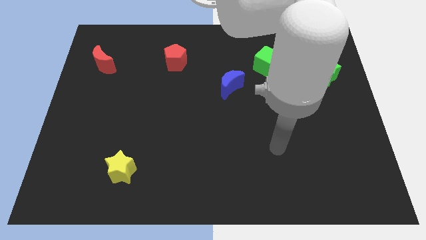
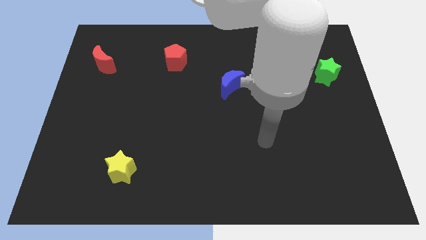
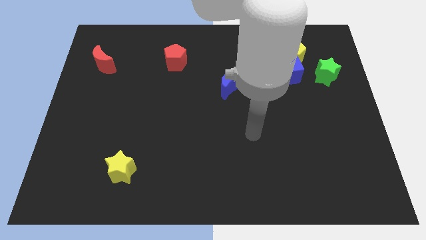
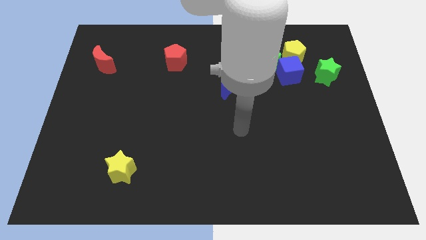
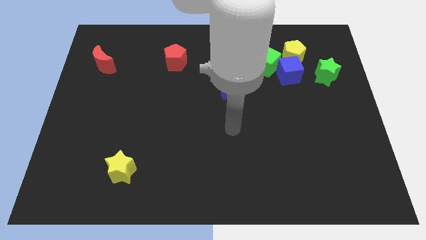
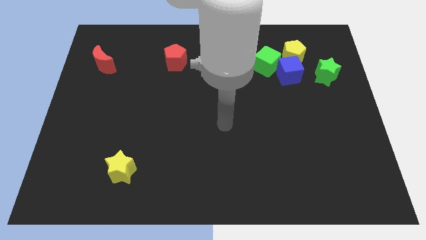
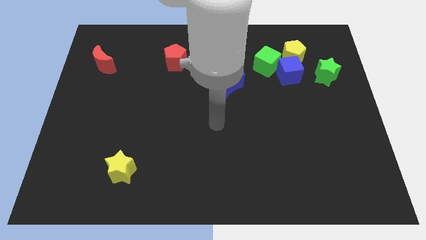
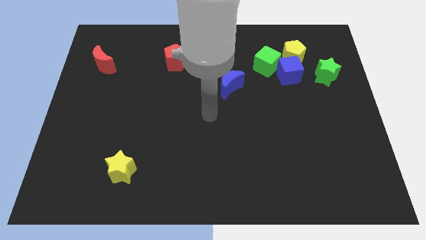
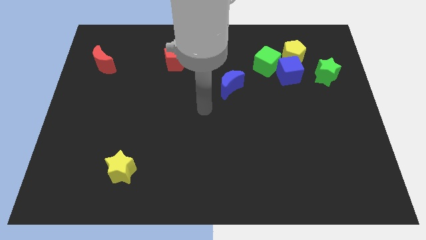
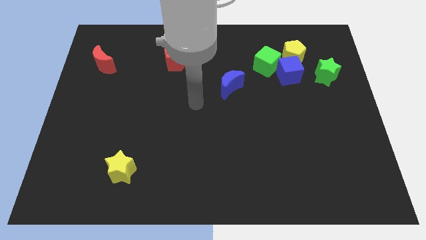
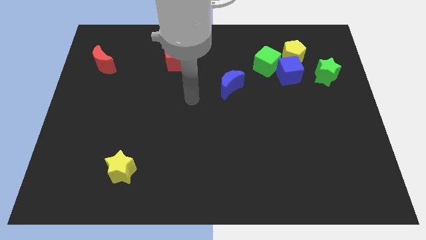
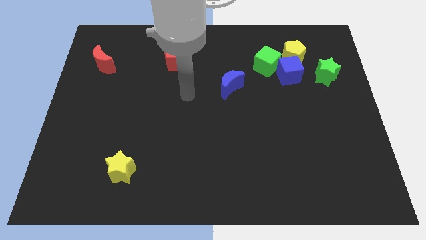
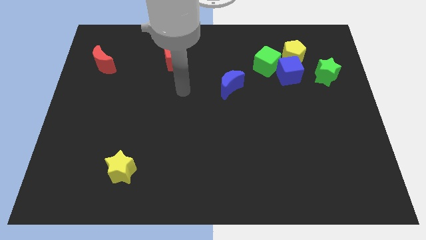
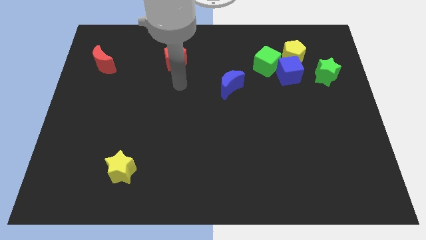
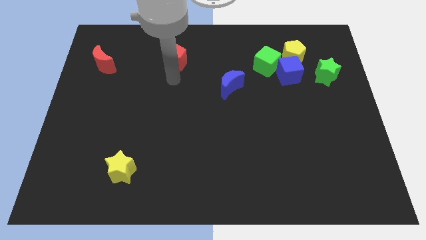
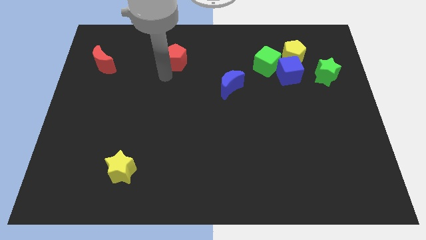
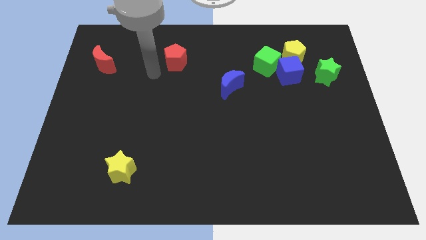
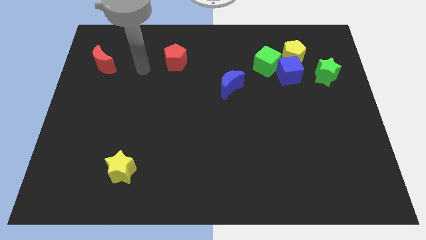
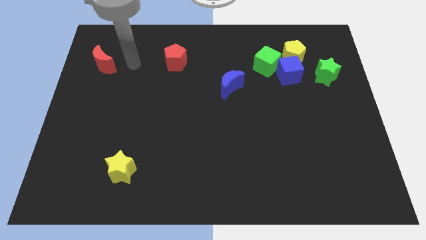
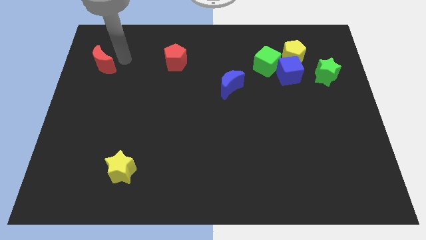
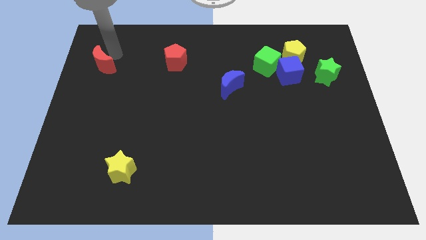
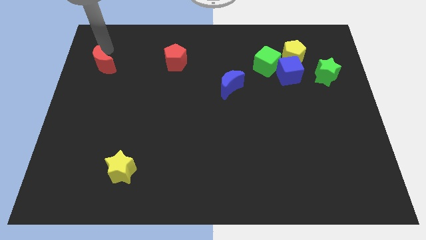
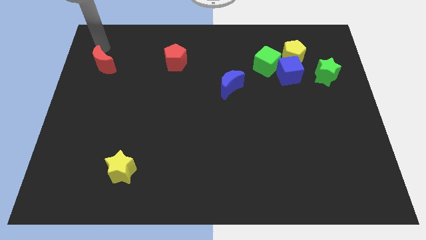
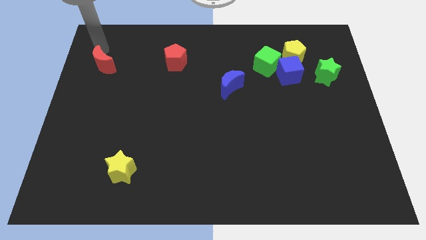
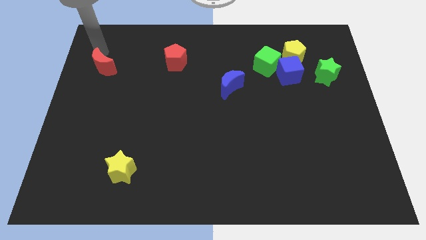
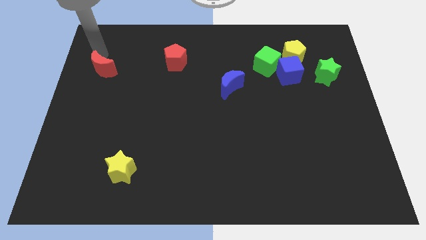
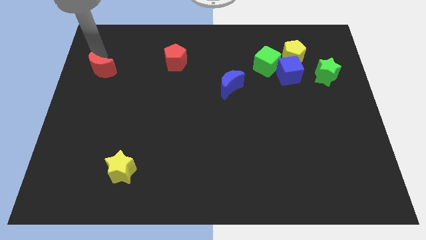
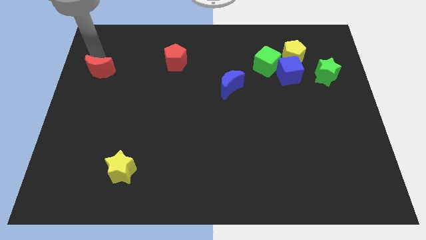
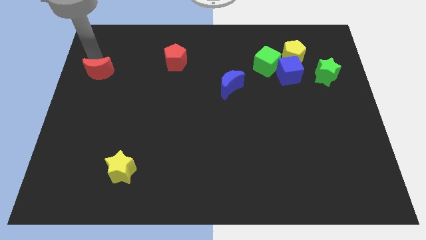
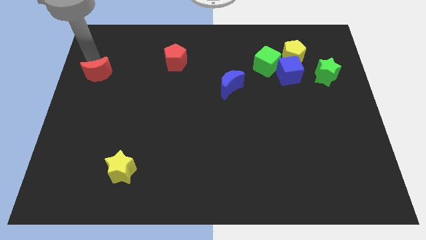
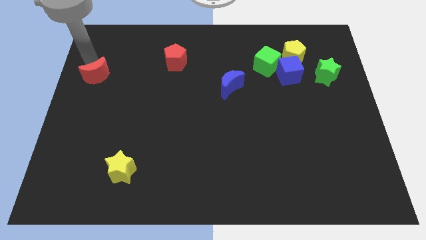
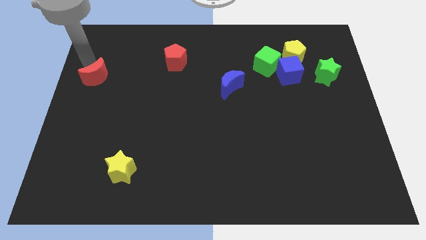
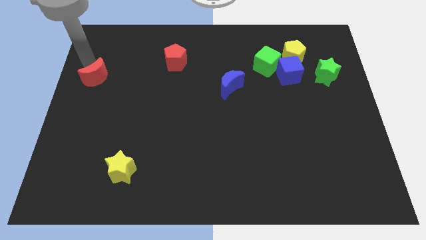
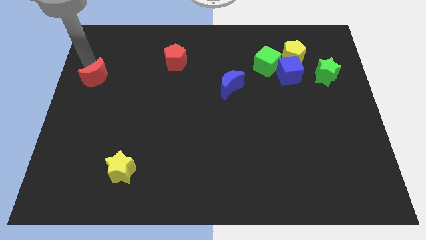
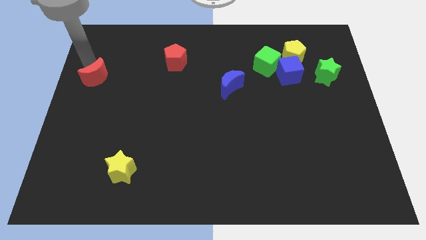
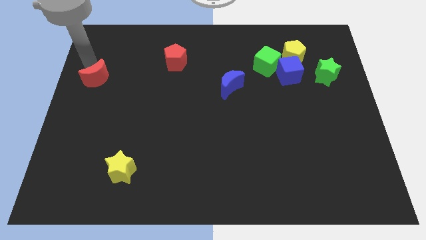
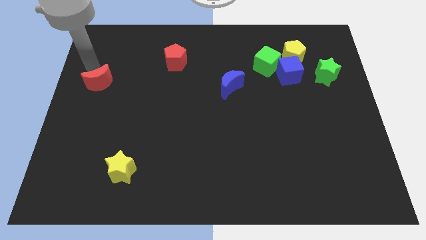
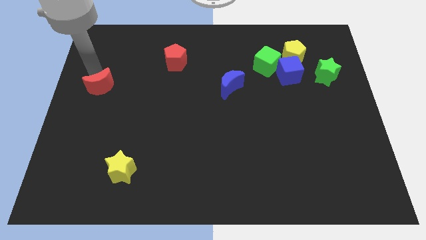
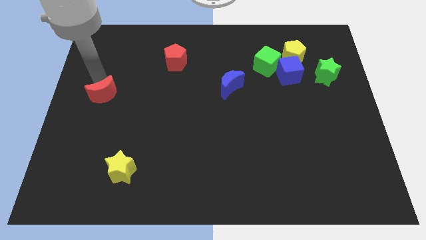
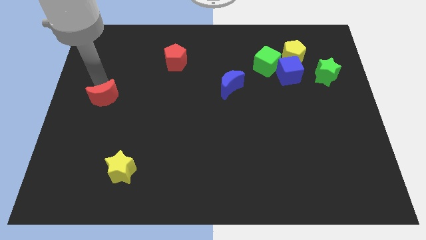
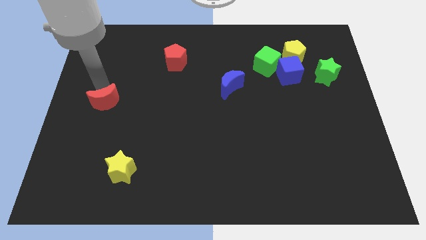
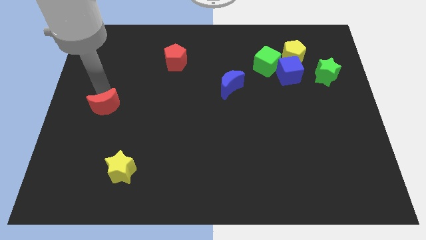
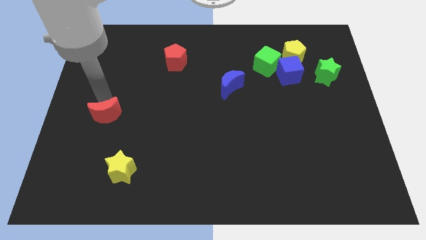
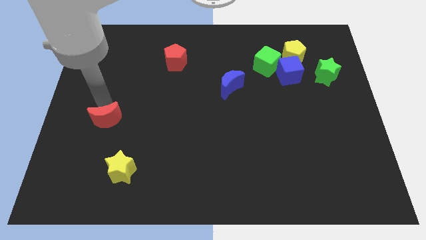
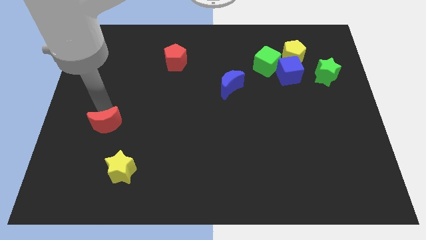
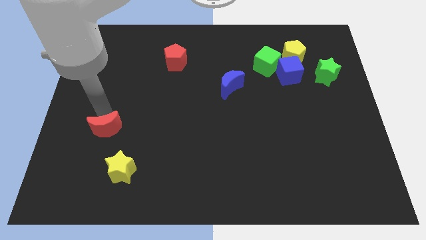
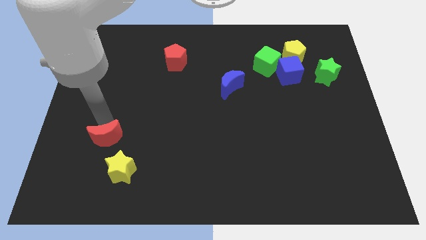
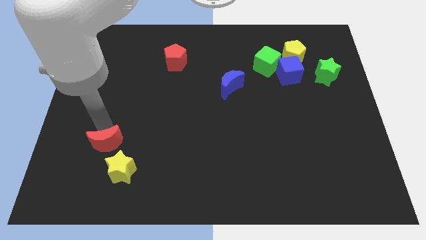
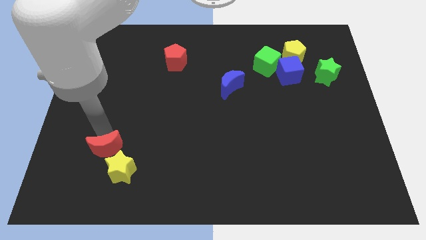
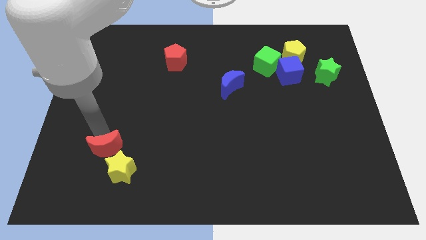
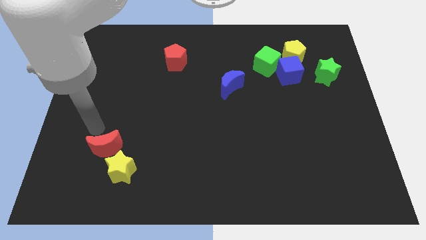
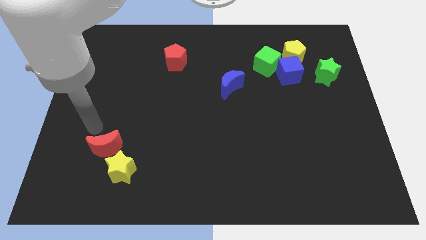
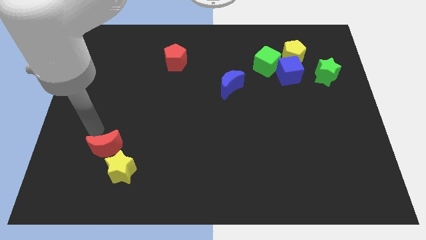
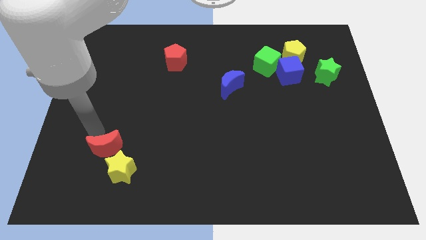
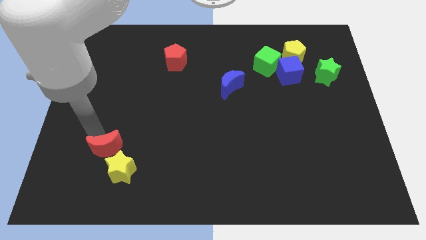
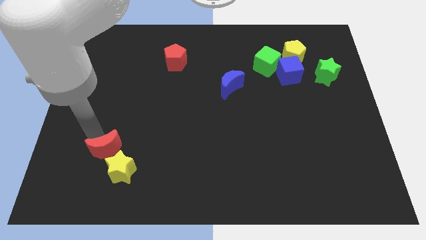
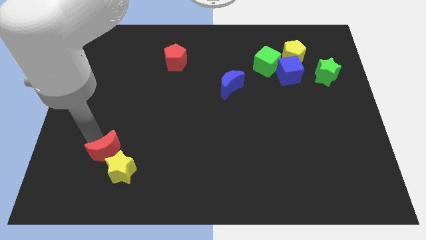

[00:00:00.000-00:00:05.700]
move the red moon close to the yellow star

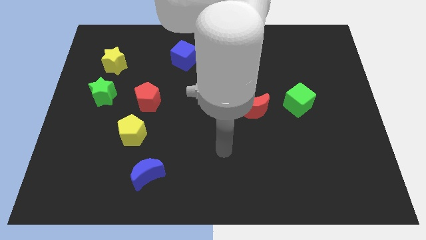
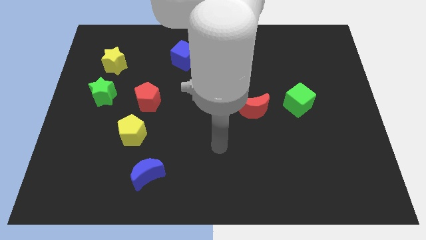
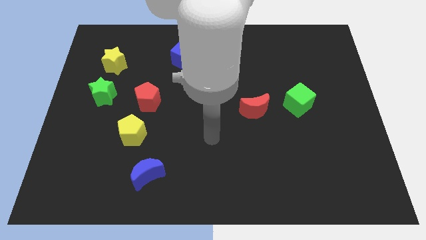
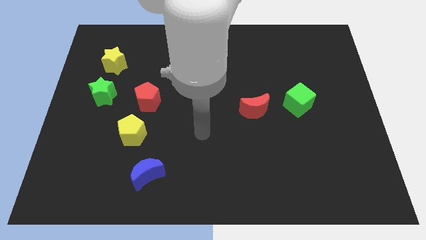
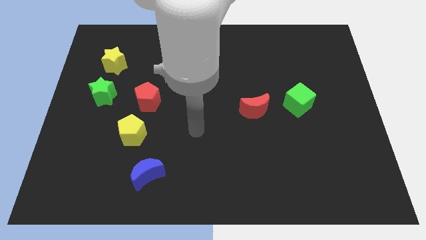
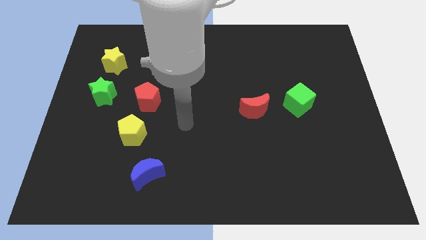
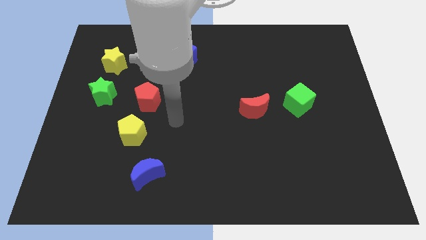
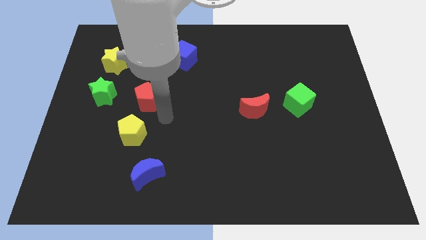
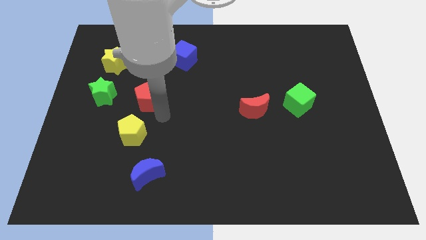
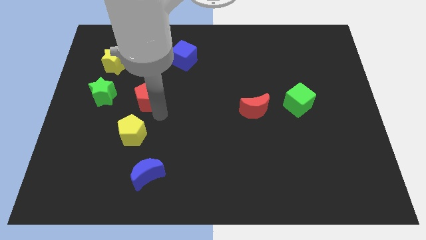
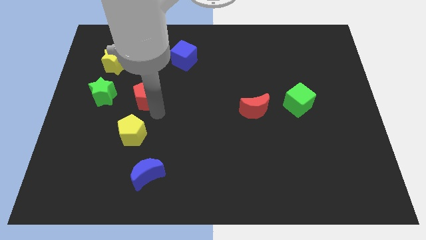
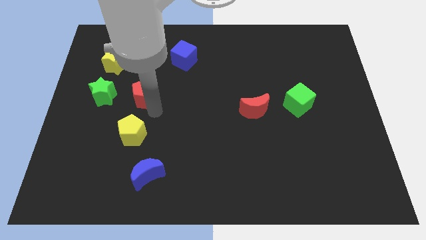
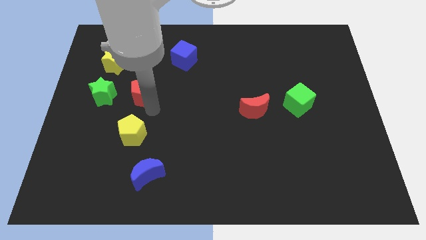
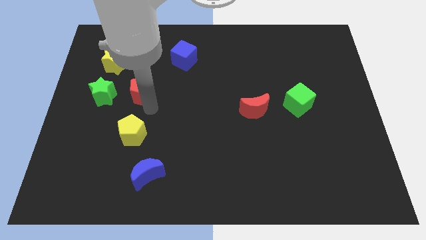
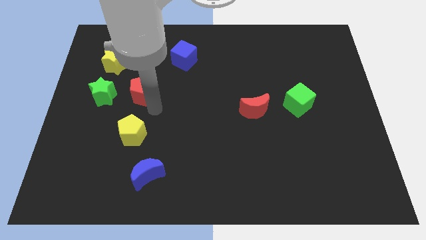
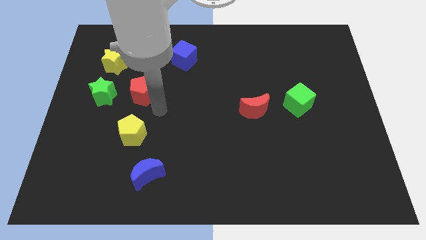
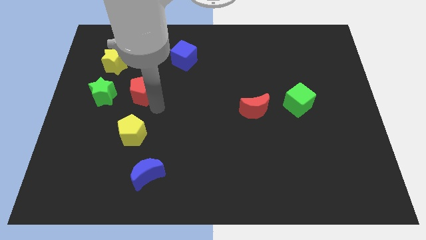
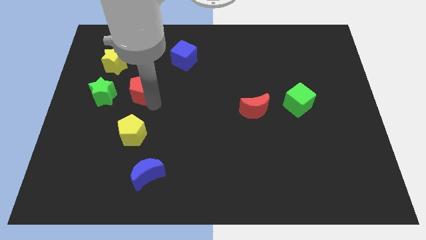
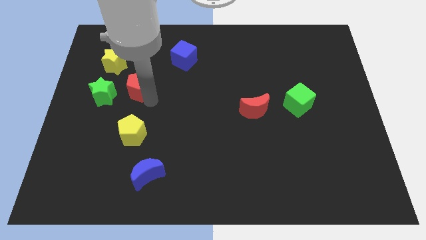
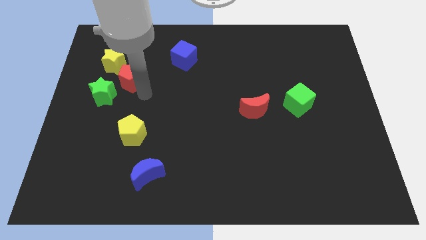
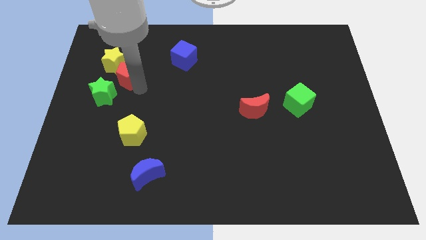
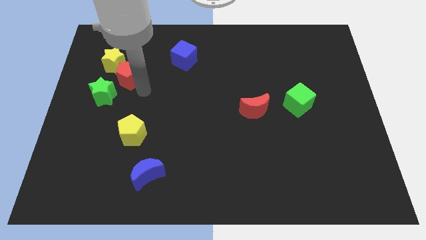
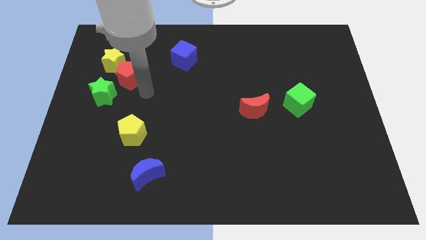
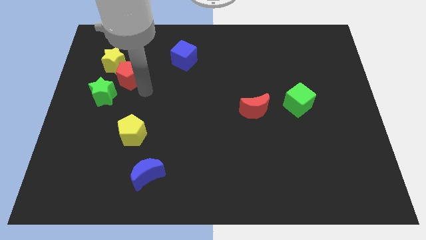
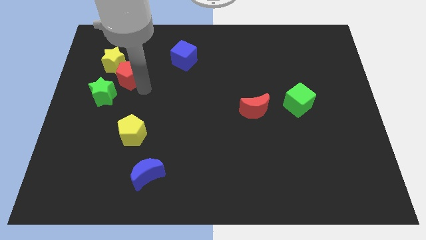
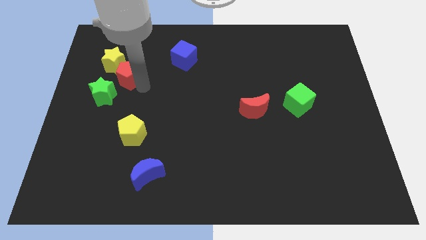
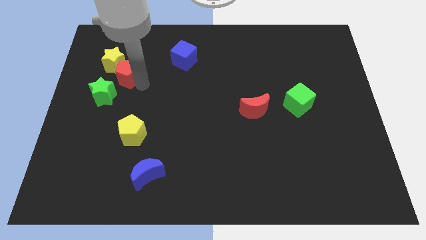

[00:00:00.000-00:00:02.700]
move the red pentagon towards the yellow star
